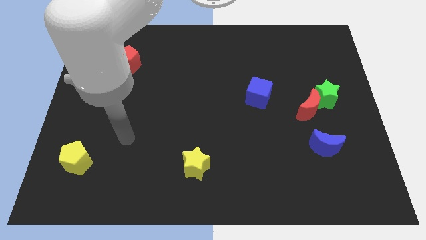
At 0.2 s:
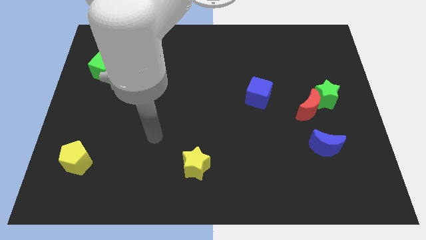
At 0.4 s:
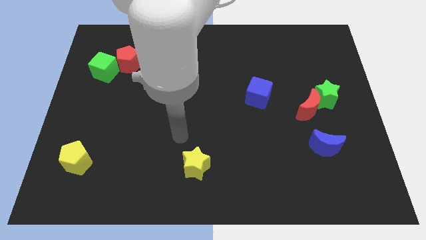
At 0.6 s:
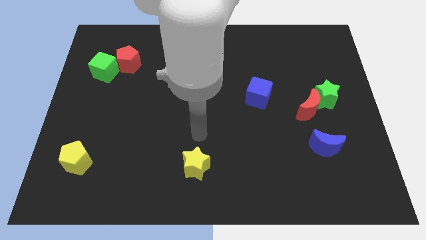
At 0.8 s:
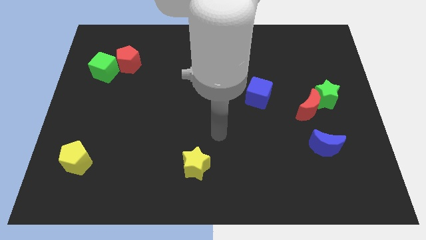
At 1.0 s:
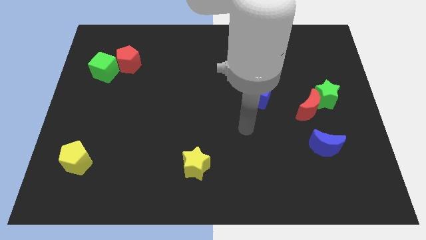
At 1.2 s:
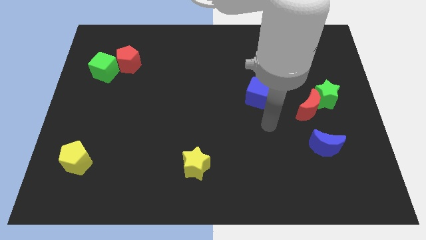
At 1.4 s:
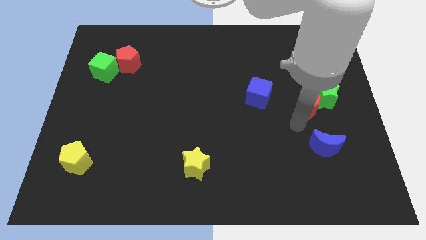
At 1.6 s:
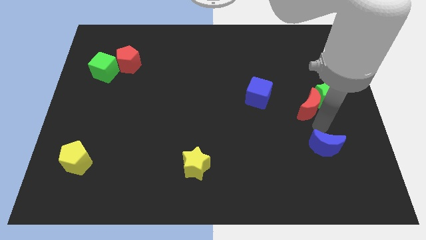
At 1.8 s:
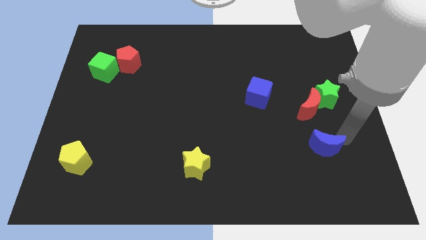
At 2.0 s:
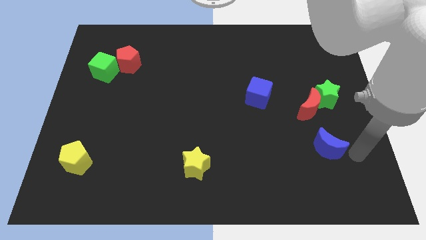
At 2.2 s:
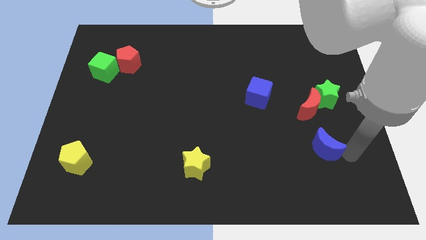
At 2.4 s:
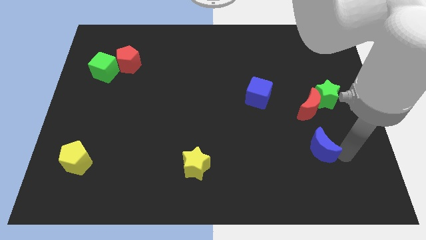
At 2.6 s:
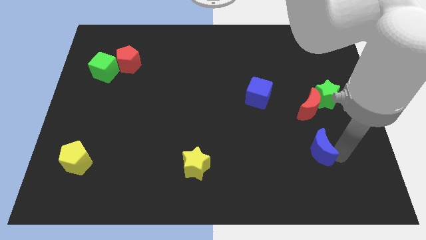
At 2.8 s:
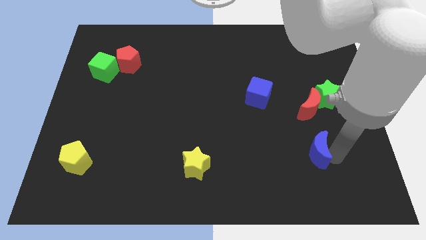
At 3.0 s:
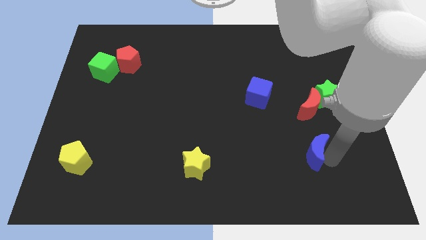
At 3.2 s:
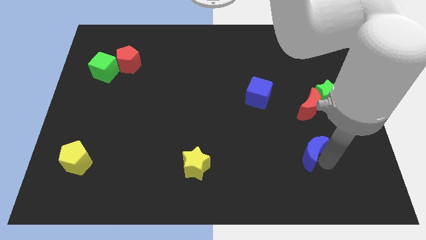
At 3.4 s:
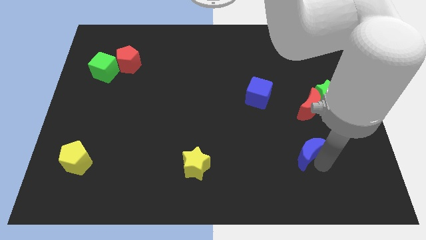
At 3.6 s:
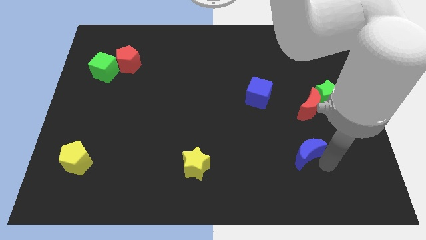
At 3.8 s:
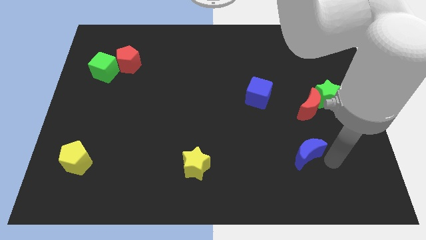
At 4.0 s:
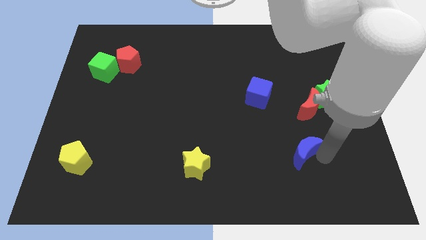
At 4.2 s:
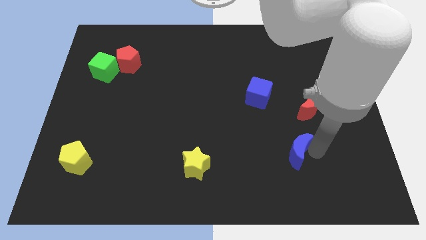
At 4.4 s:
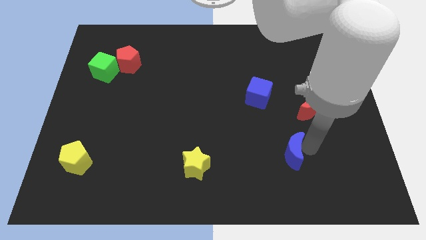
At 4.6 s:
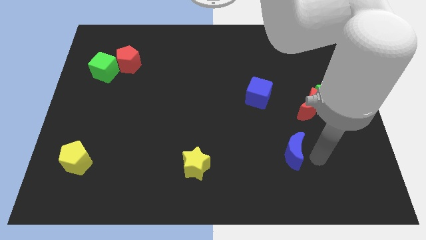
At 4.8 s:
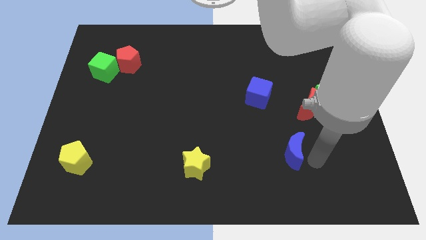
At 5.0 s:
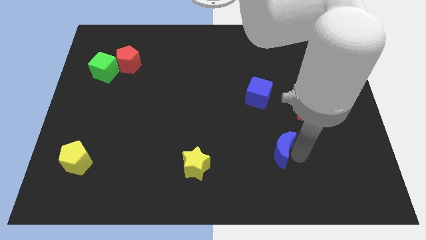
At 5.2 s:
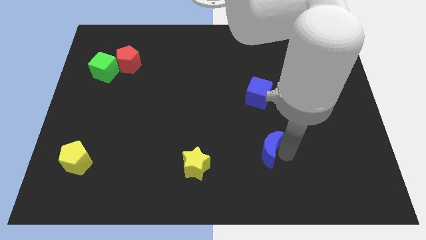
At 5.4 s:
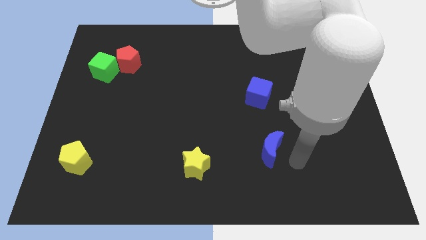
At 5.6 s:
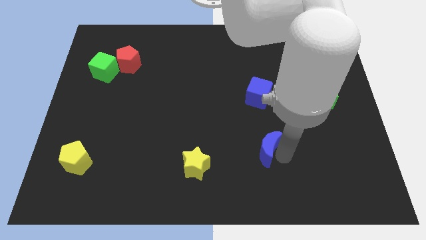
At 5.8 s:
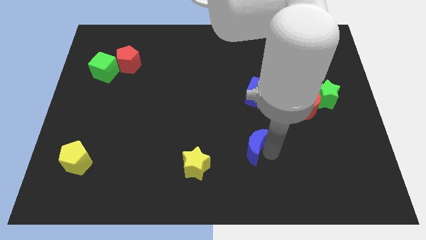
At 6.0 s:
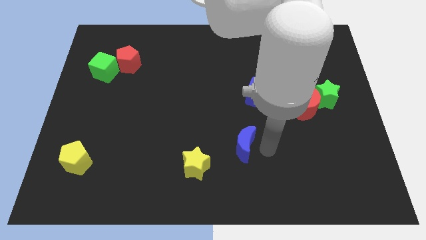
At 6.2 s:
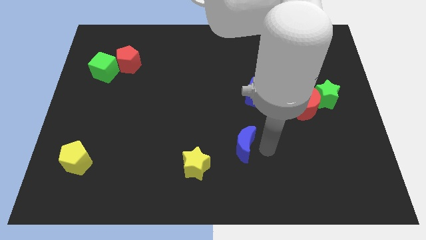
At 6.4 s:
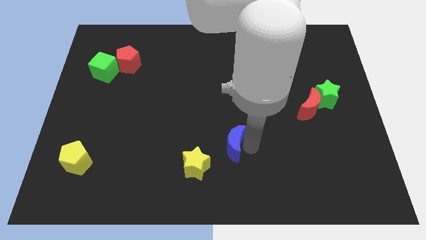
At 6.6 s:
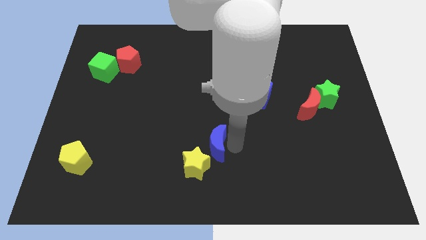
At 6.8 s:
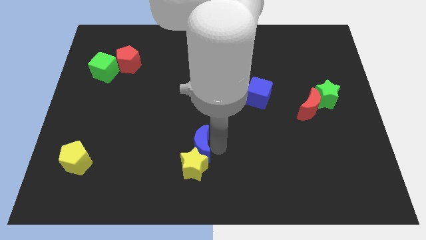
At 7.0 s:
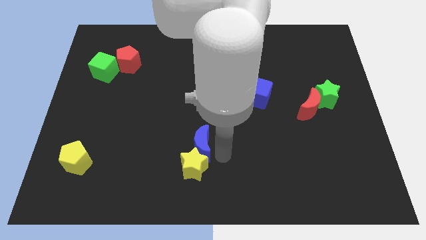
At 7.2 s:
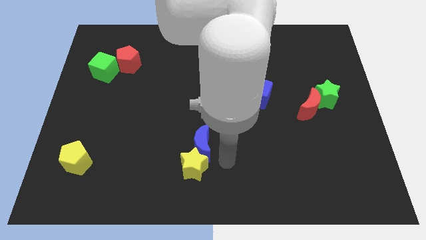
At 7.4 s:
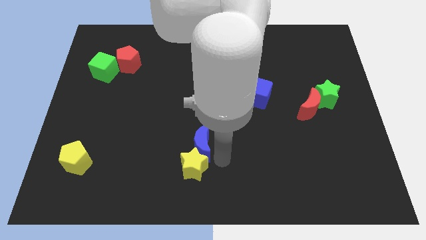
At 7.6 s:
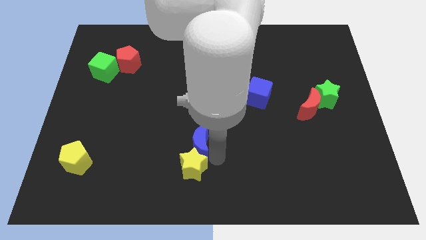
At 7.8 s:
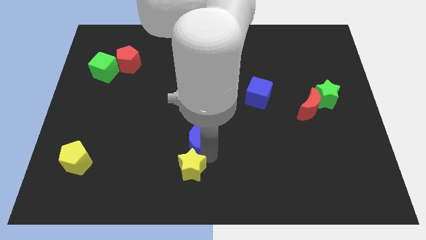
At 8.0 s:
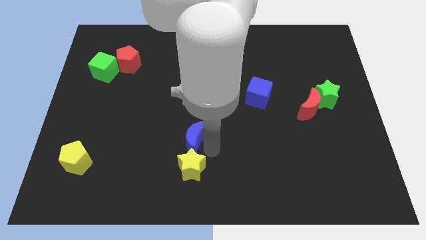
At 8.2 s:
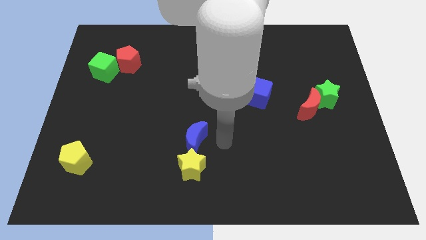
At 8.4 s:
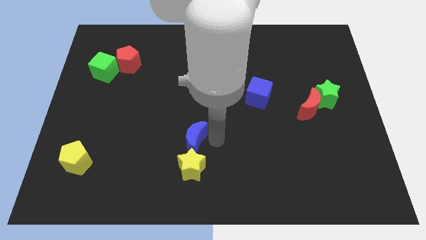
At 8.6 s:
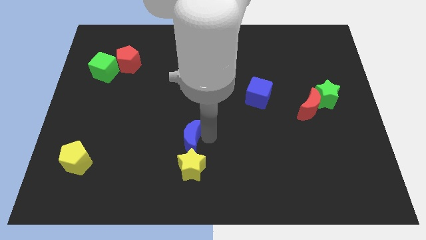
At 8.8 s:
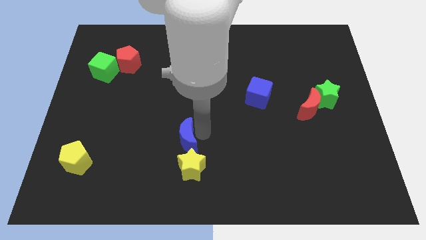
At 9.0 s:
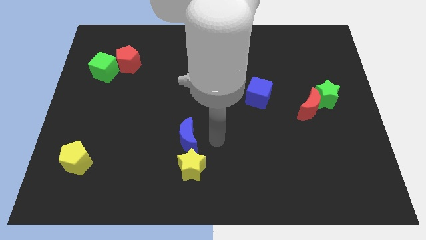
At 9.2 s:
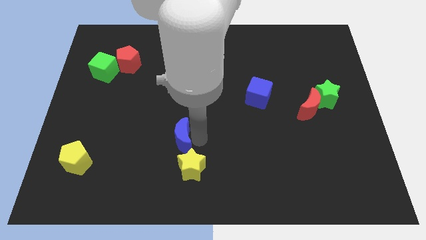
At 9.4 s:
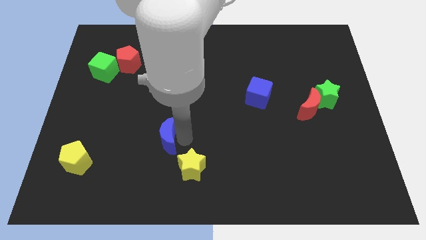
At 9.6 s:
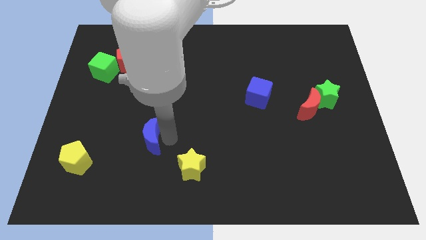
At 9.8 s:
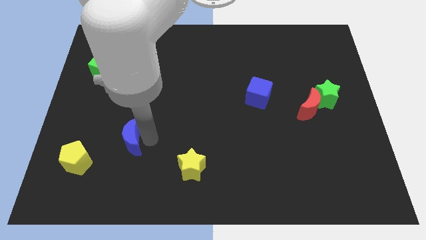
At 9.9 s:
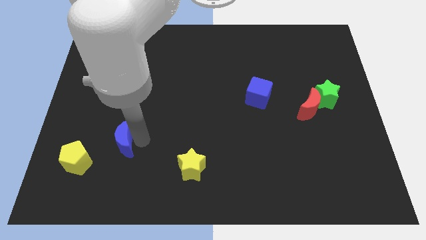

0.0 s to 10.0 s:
put the blue moon to the top right side of the yellow pentagon

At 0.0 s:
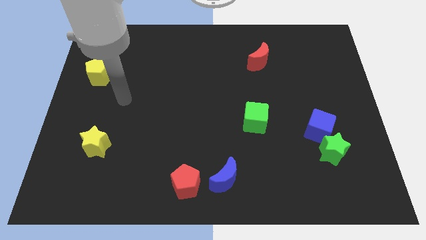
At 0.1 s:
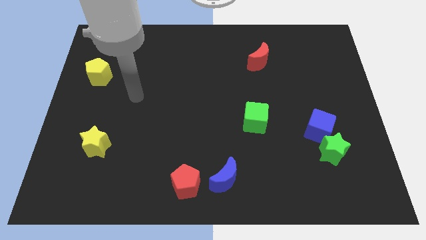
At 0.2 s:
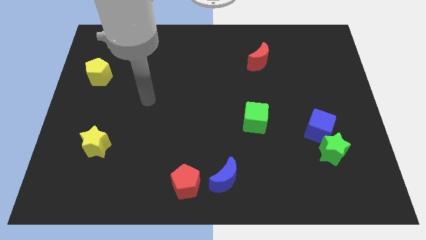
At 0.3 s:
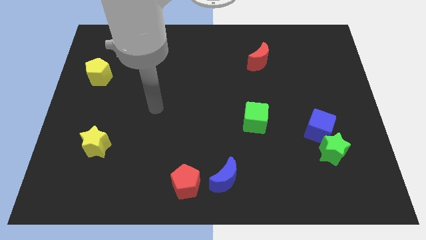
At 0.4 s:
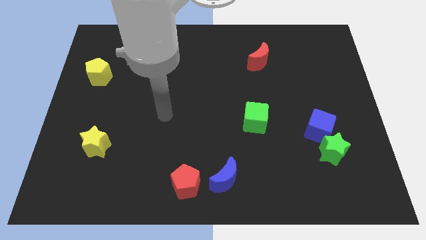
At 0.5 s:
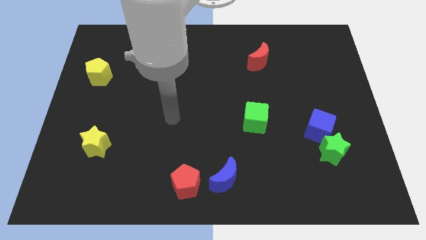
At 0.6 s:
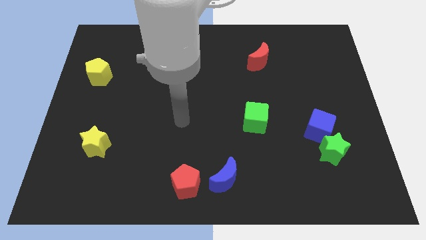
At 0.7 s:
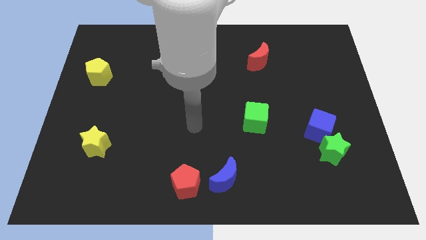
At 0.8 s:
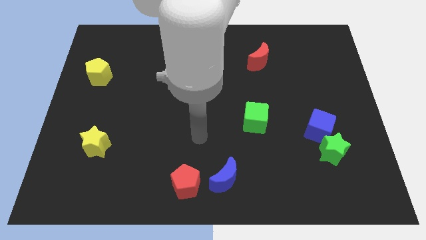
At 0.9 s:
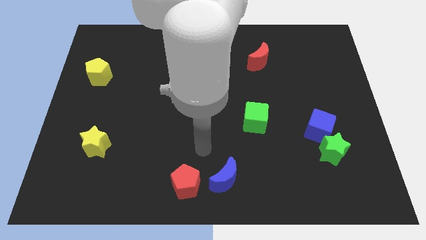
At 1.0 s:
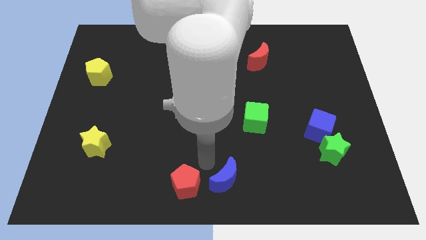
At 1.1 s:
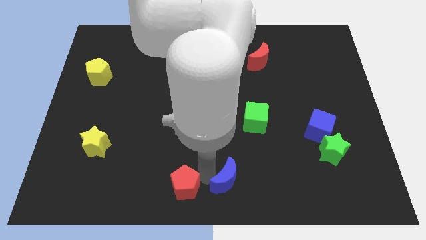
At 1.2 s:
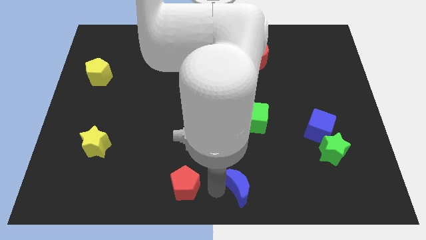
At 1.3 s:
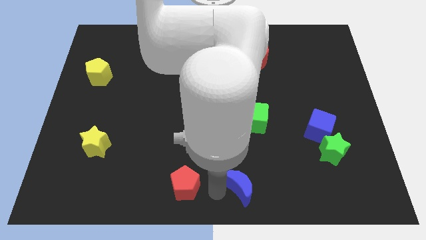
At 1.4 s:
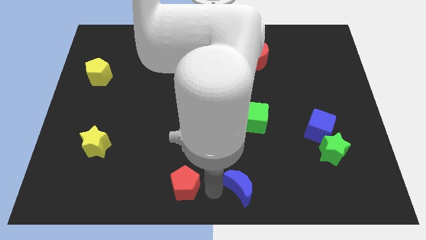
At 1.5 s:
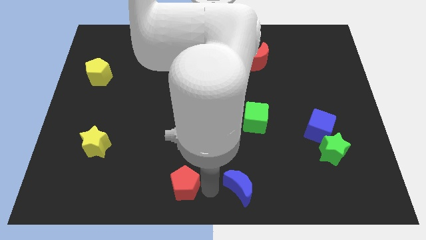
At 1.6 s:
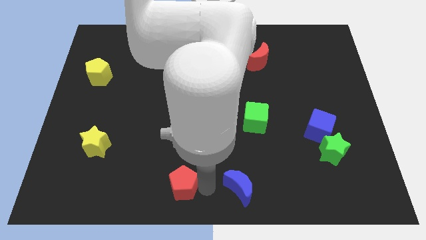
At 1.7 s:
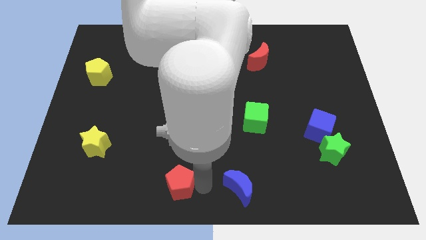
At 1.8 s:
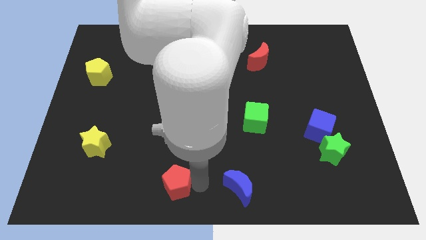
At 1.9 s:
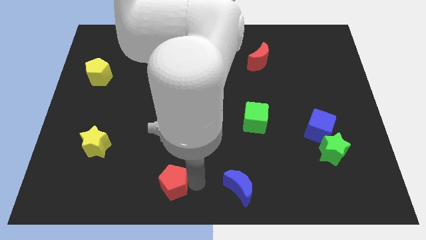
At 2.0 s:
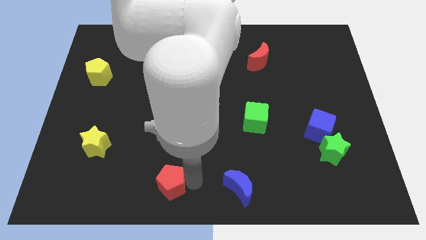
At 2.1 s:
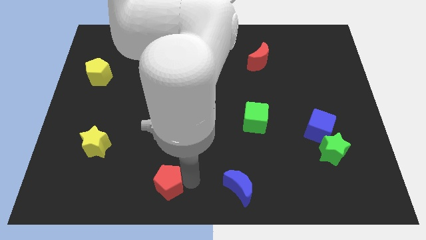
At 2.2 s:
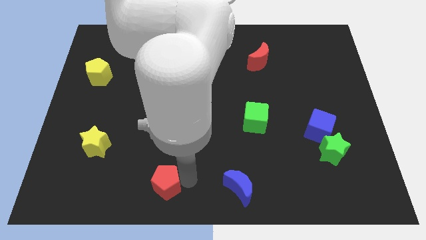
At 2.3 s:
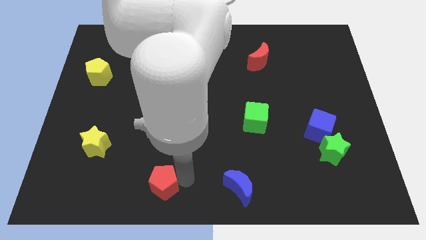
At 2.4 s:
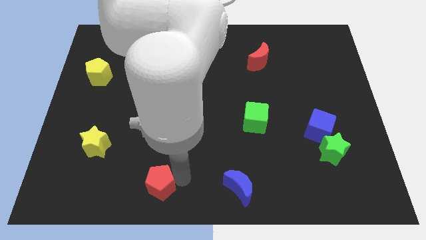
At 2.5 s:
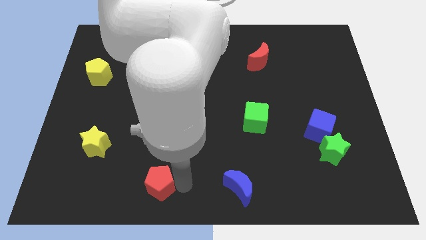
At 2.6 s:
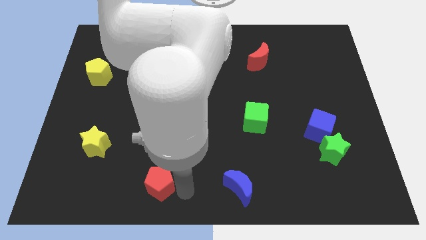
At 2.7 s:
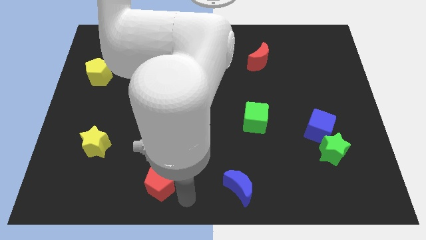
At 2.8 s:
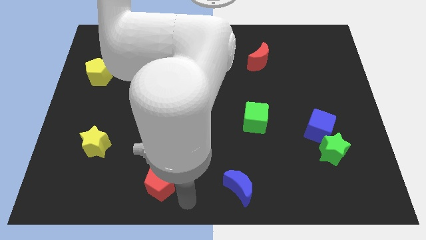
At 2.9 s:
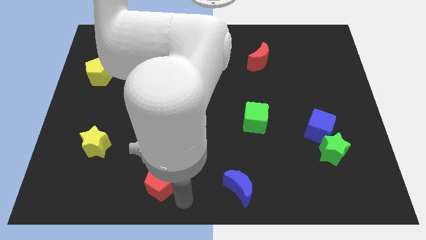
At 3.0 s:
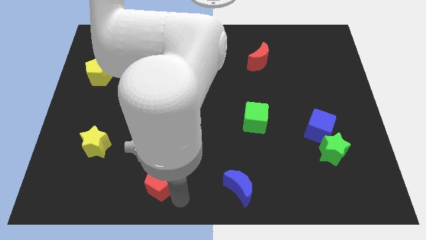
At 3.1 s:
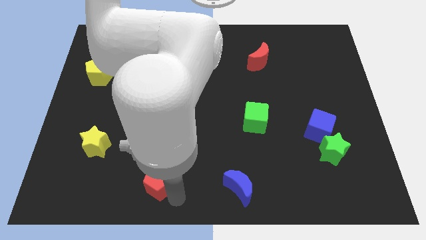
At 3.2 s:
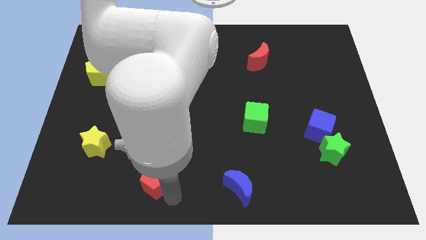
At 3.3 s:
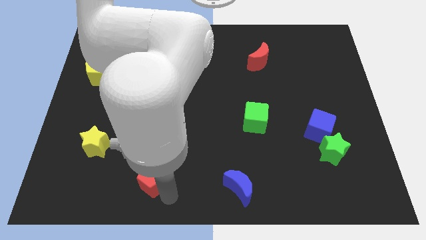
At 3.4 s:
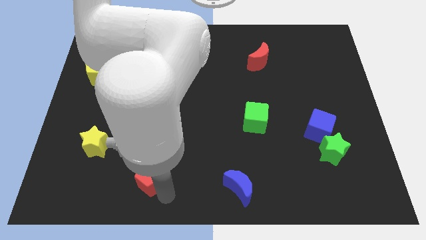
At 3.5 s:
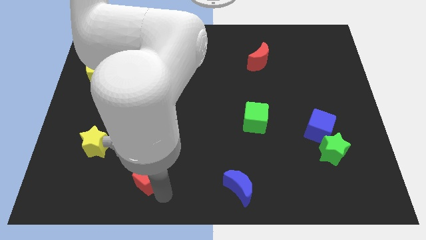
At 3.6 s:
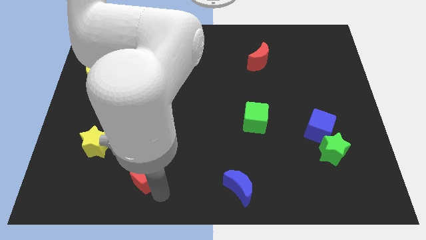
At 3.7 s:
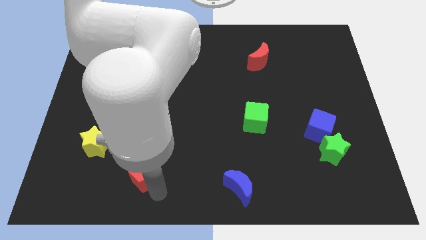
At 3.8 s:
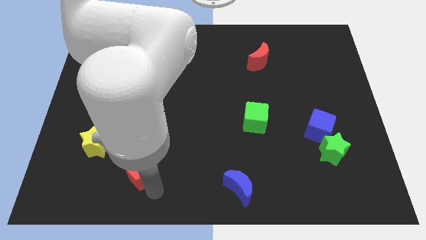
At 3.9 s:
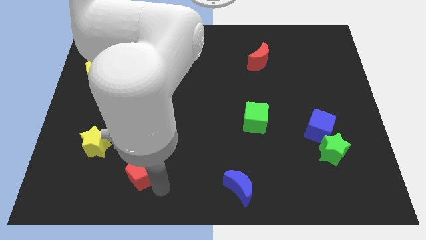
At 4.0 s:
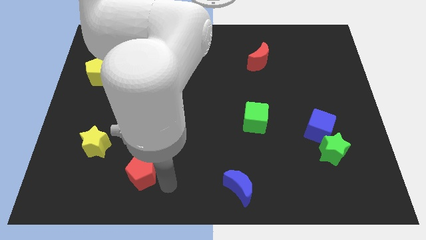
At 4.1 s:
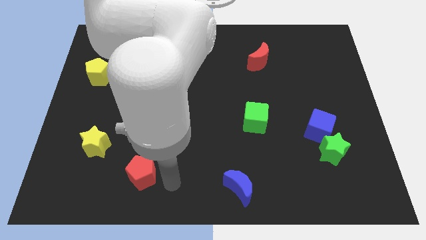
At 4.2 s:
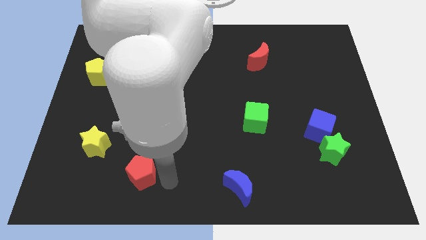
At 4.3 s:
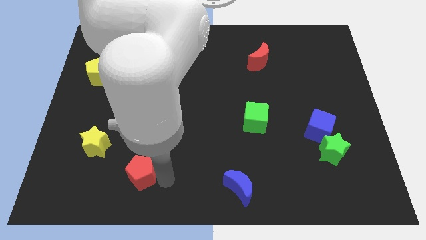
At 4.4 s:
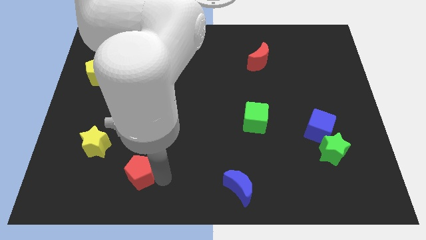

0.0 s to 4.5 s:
push the red pentagon to the bottom right of the yellow star
